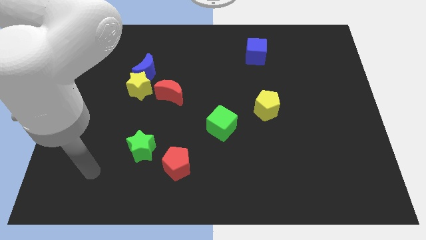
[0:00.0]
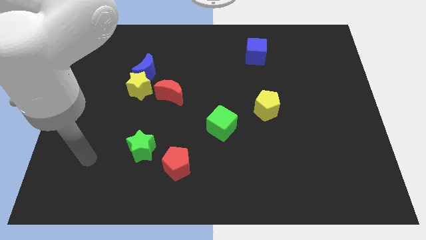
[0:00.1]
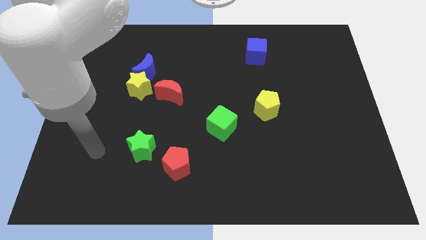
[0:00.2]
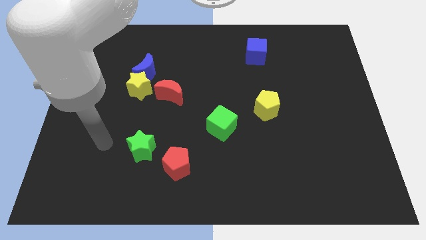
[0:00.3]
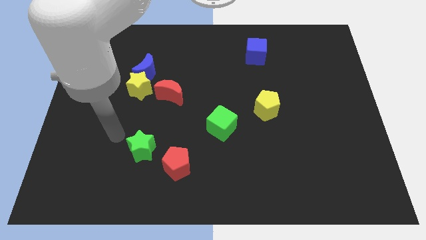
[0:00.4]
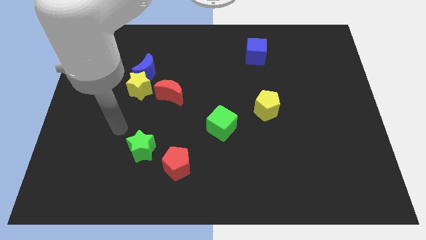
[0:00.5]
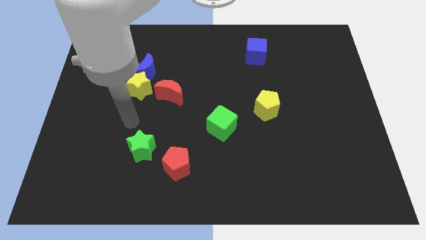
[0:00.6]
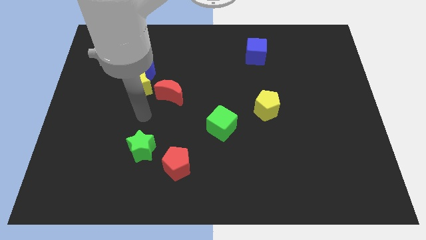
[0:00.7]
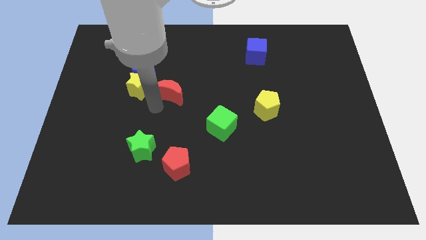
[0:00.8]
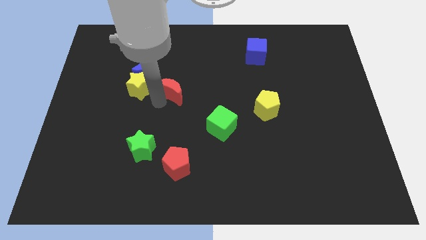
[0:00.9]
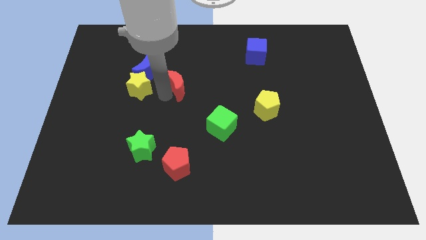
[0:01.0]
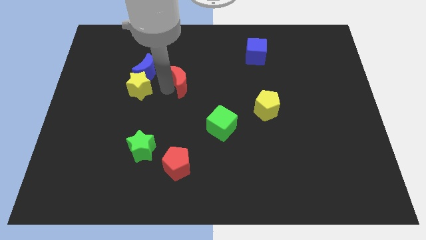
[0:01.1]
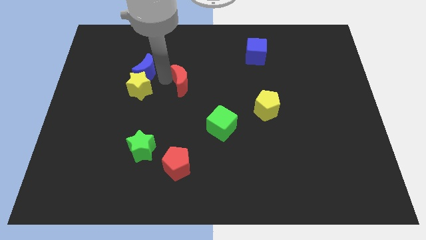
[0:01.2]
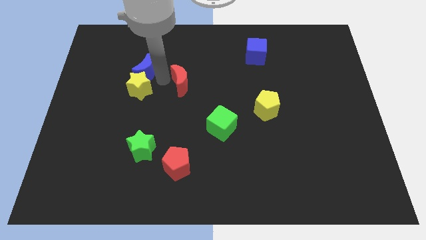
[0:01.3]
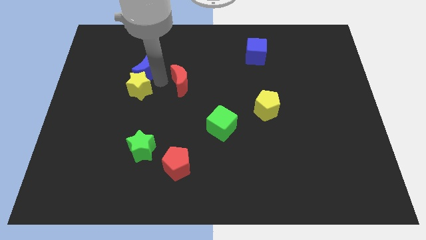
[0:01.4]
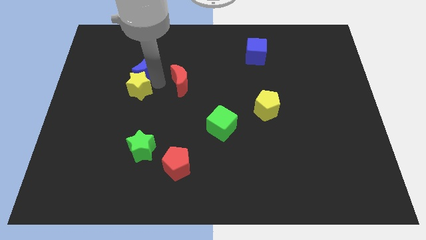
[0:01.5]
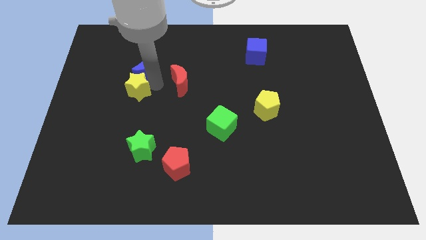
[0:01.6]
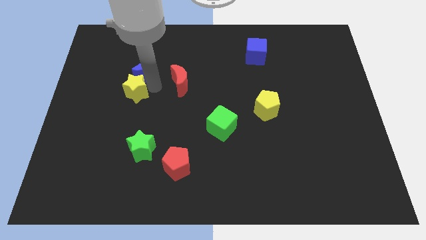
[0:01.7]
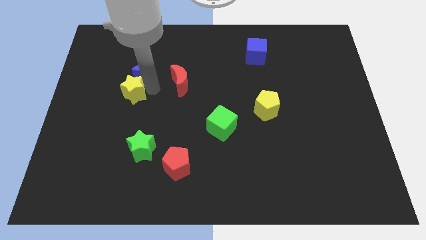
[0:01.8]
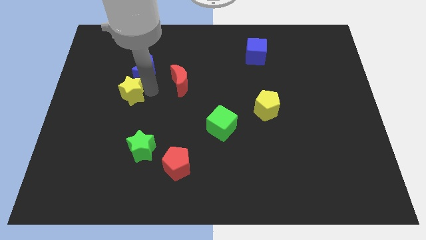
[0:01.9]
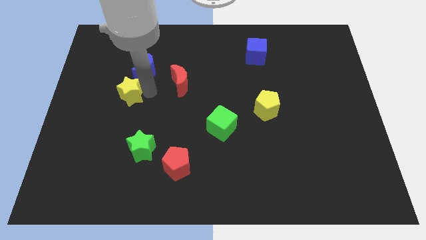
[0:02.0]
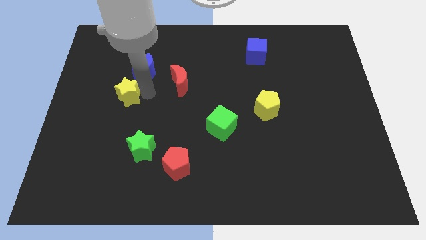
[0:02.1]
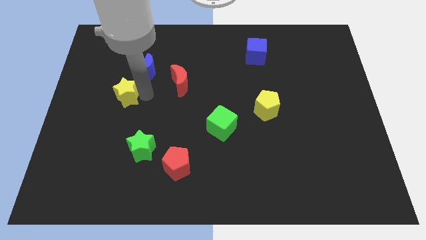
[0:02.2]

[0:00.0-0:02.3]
move the yellow star away from the blue moon and red moon

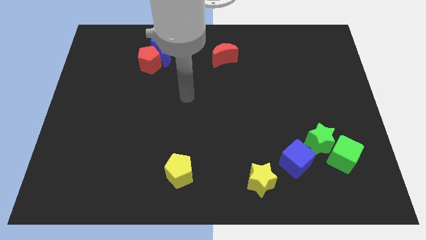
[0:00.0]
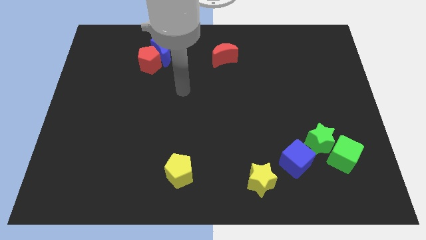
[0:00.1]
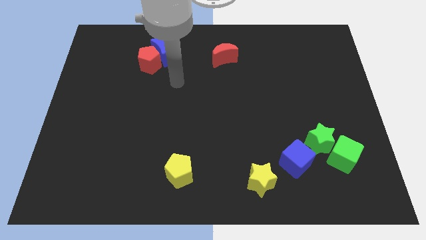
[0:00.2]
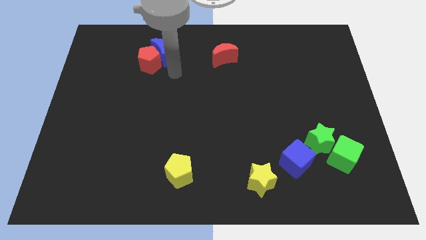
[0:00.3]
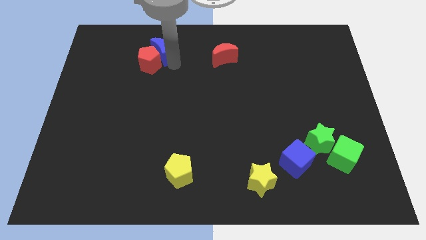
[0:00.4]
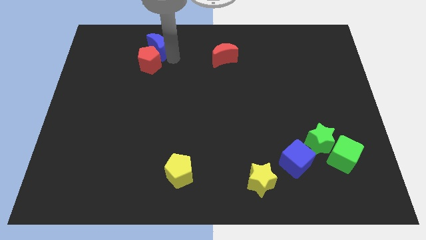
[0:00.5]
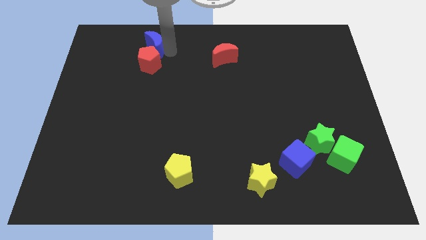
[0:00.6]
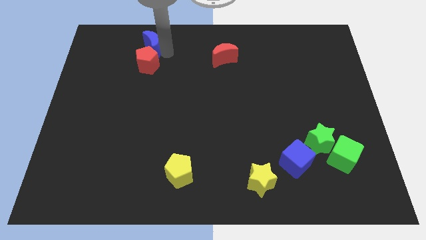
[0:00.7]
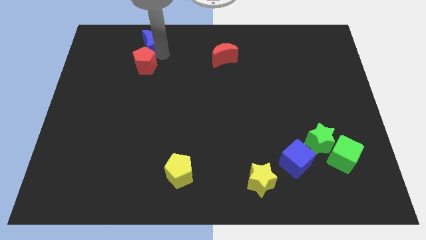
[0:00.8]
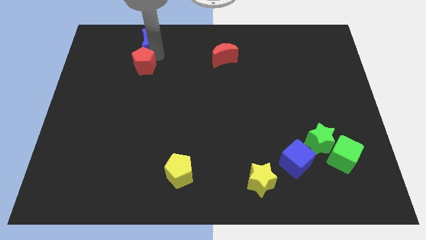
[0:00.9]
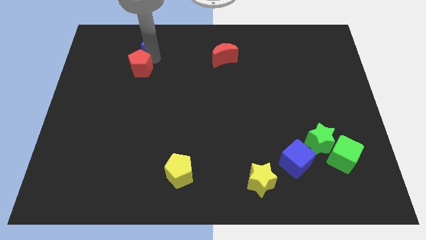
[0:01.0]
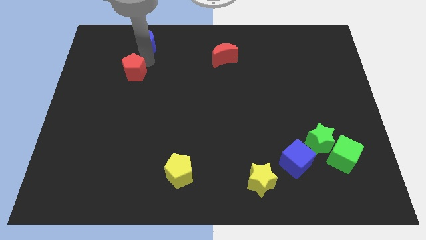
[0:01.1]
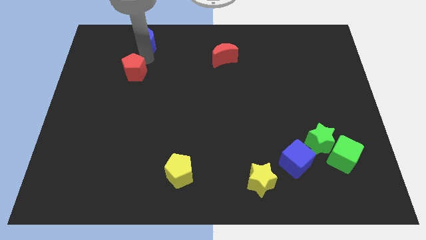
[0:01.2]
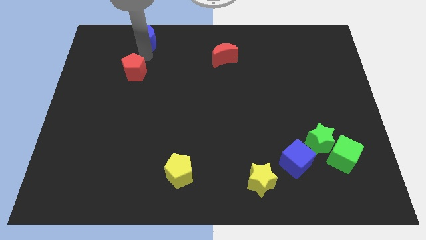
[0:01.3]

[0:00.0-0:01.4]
move the red pentagon away from the blue moon

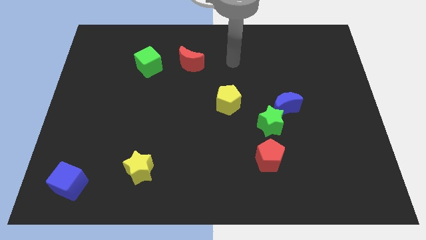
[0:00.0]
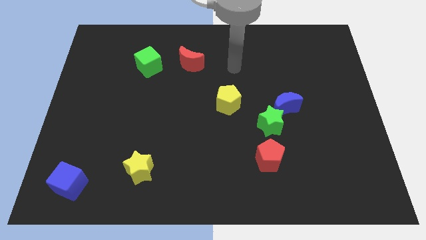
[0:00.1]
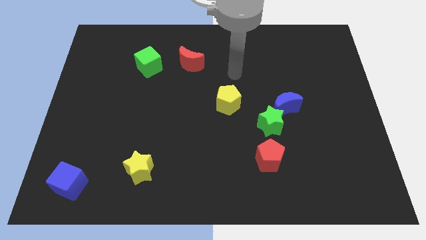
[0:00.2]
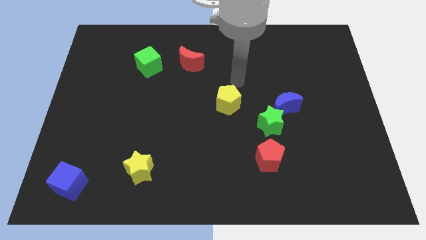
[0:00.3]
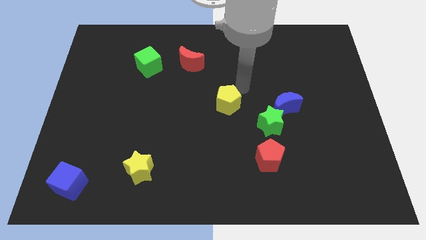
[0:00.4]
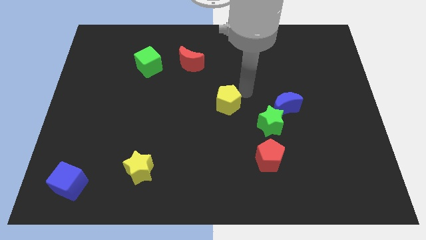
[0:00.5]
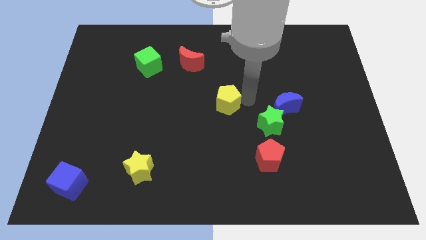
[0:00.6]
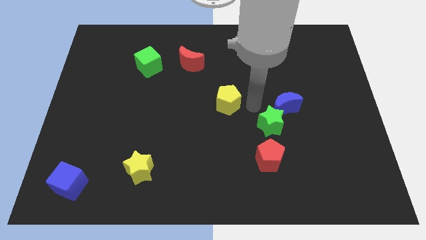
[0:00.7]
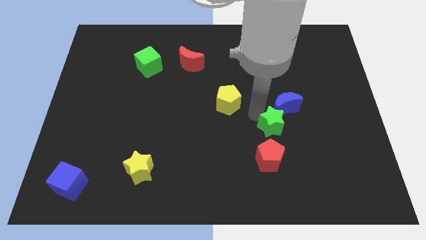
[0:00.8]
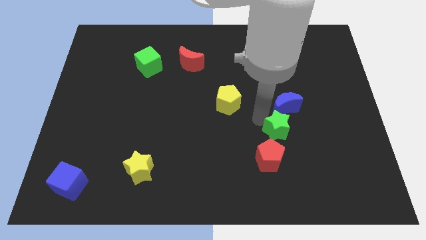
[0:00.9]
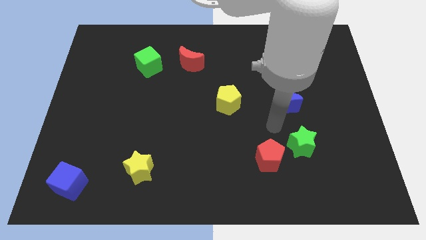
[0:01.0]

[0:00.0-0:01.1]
move the blue moon away from the green star

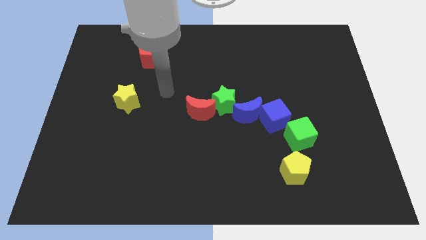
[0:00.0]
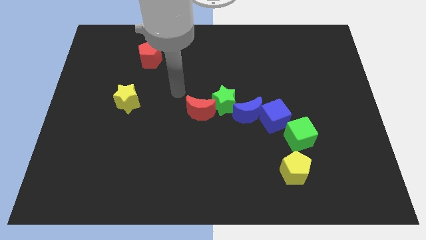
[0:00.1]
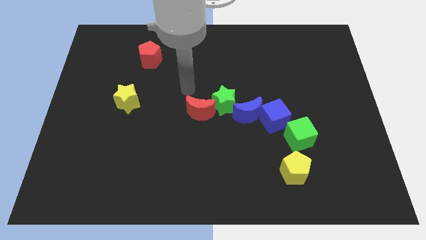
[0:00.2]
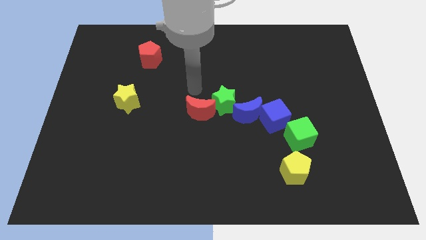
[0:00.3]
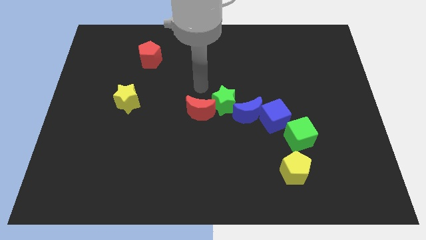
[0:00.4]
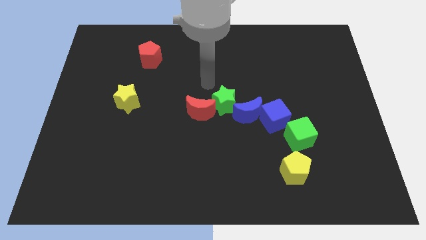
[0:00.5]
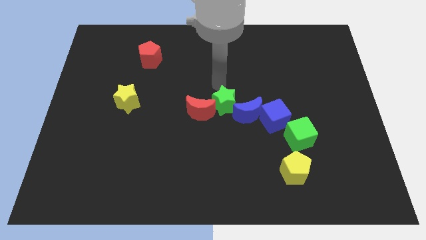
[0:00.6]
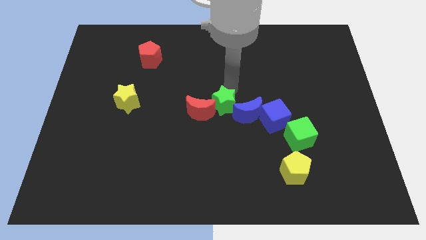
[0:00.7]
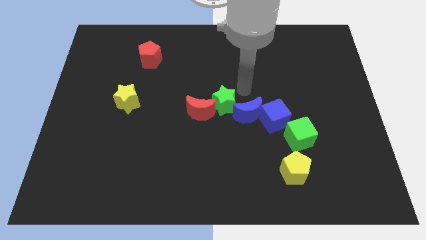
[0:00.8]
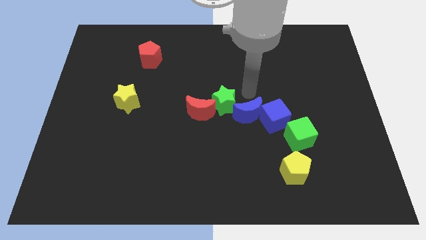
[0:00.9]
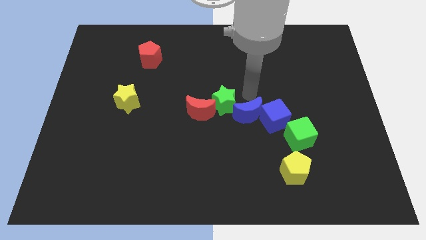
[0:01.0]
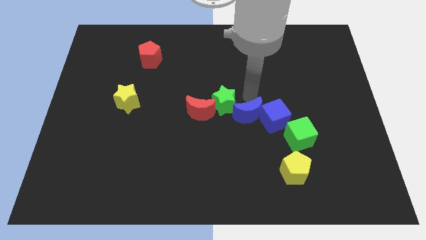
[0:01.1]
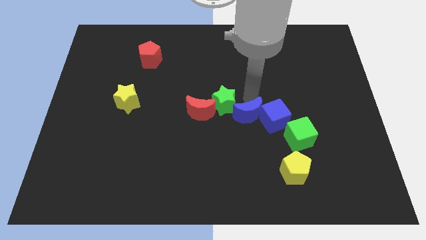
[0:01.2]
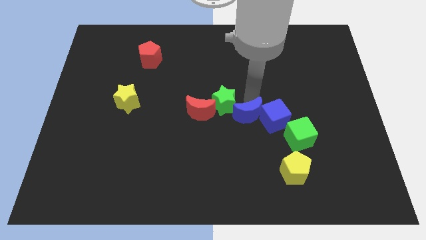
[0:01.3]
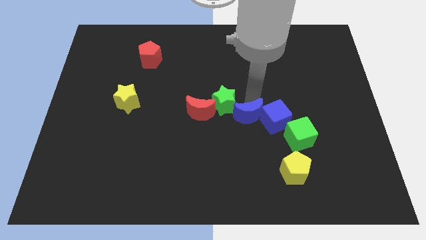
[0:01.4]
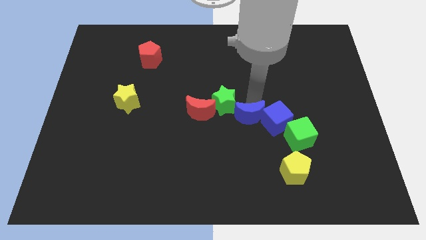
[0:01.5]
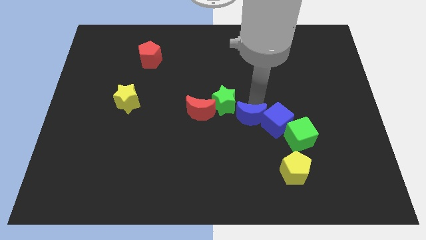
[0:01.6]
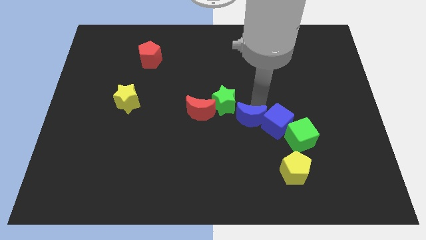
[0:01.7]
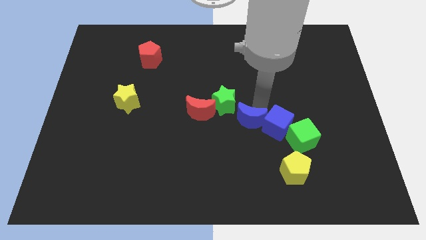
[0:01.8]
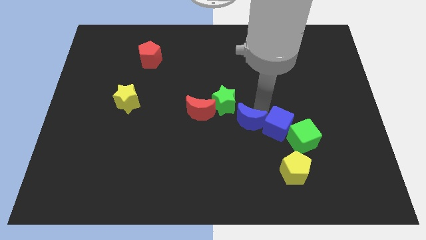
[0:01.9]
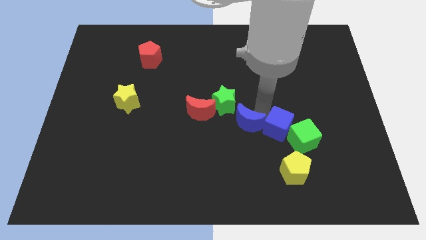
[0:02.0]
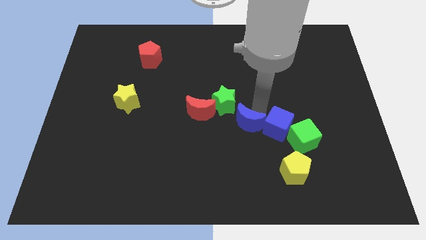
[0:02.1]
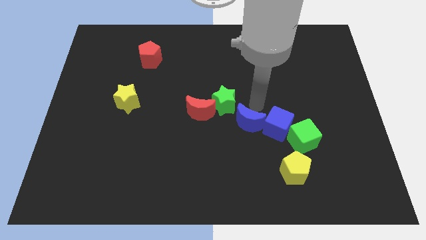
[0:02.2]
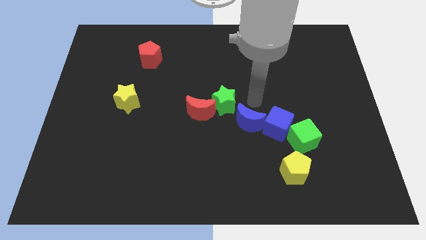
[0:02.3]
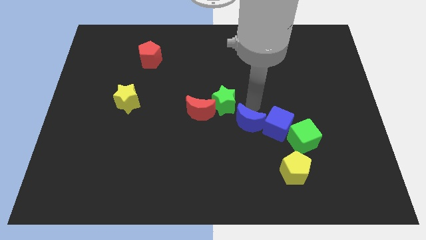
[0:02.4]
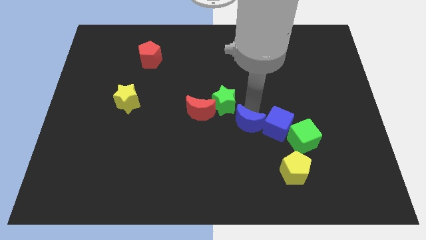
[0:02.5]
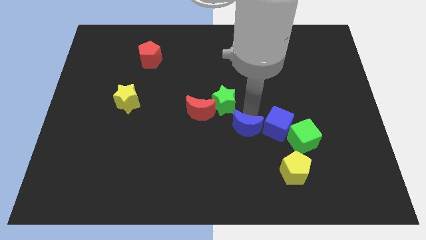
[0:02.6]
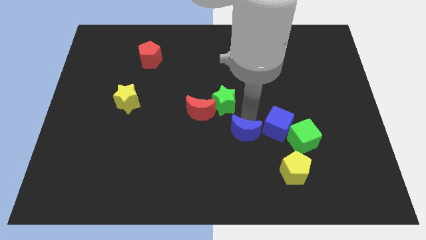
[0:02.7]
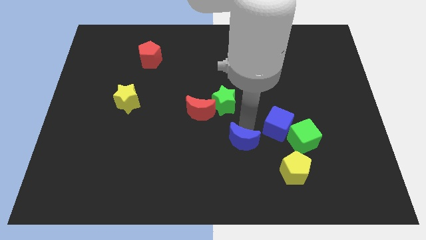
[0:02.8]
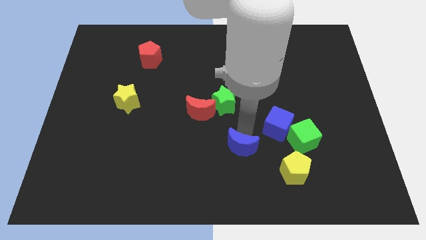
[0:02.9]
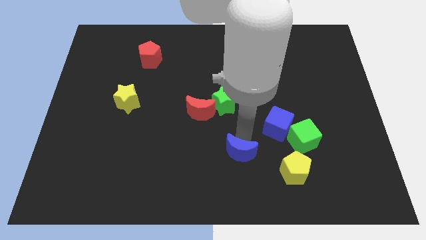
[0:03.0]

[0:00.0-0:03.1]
move the blue moon away from the blue cube and green star

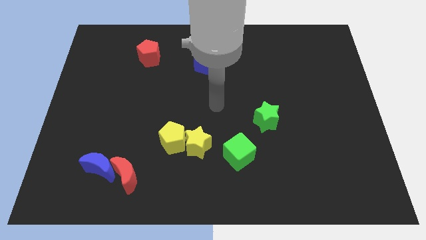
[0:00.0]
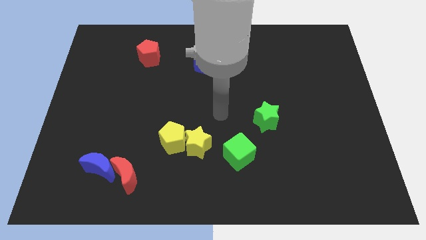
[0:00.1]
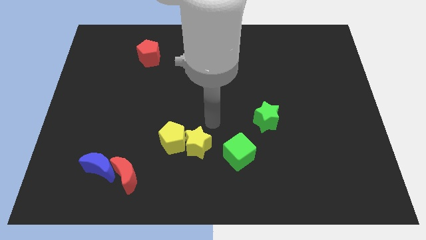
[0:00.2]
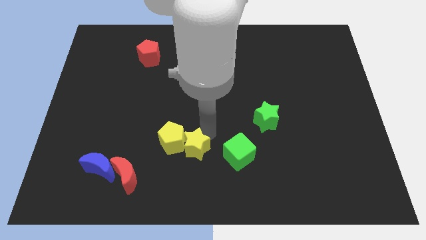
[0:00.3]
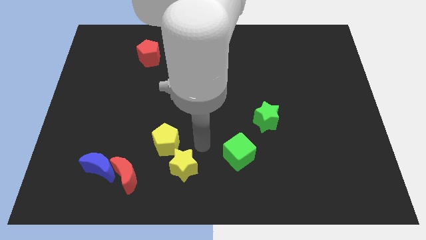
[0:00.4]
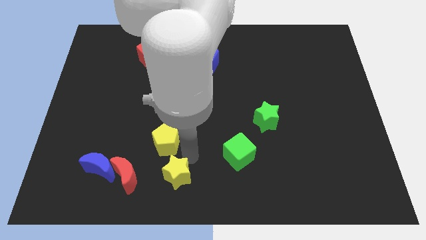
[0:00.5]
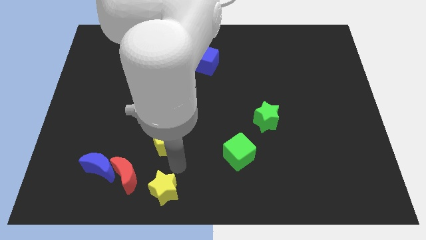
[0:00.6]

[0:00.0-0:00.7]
move the yellow pentagon away from the yellow star

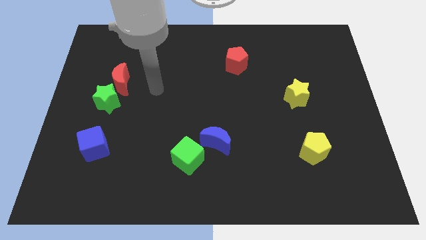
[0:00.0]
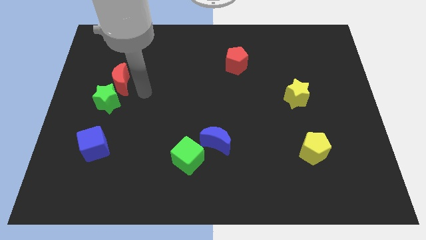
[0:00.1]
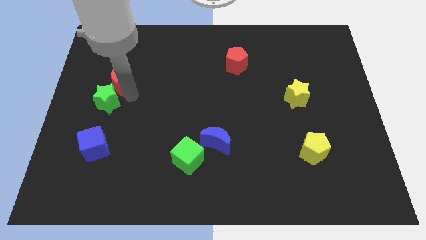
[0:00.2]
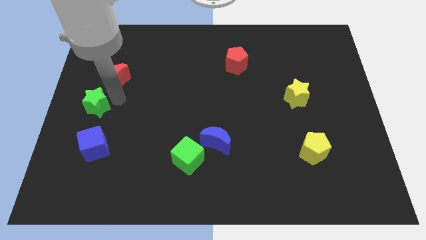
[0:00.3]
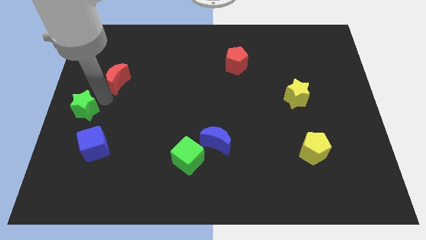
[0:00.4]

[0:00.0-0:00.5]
pull the red moon apart from the green star

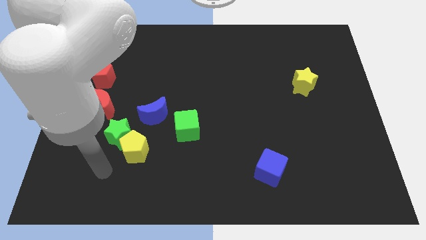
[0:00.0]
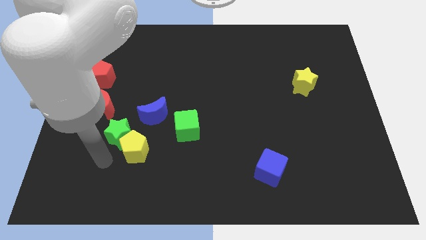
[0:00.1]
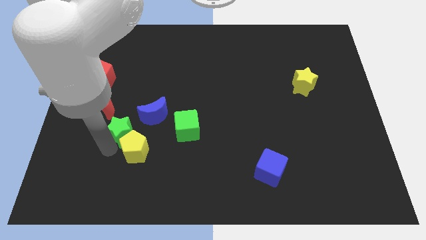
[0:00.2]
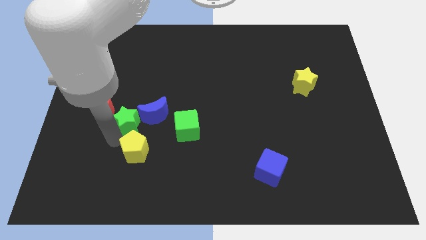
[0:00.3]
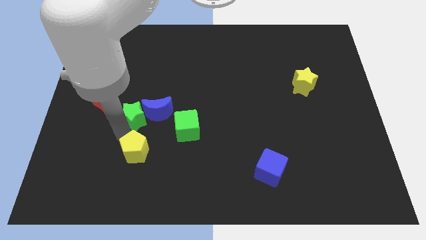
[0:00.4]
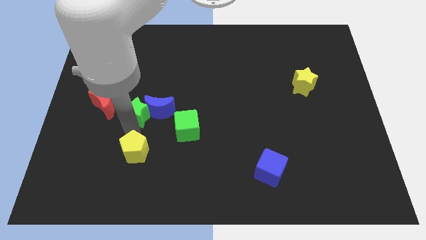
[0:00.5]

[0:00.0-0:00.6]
pull the yellow pentagon apart from the green star and blue moon
